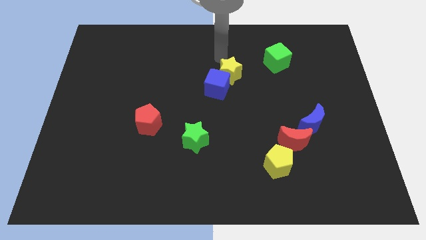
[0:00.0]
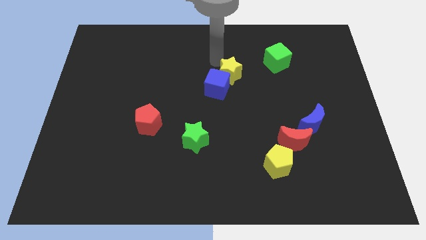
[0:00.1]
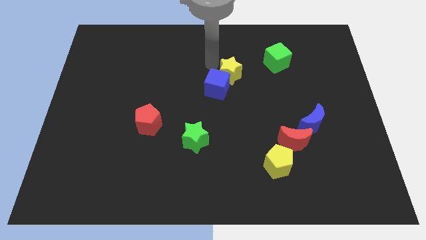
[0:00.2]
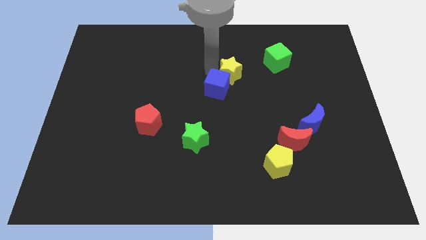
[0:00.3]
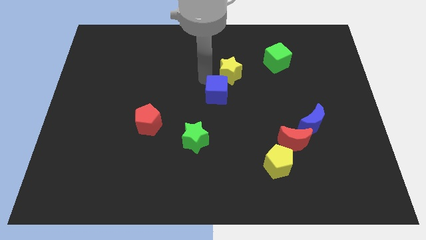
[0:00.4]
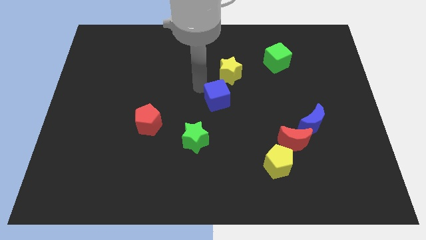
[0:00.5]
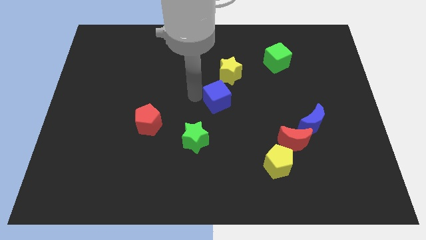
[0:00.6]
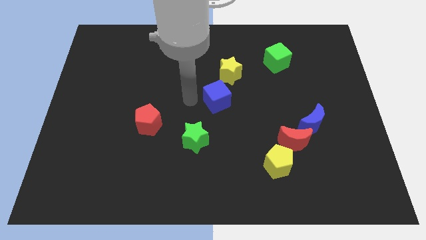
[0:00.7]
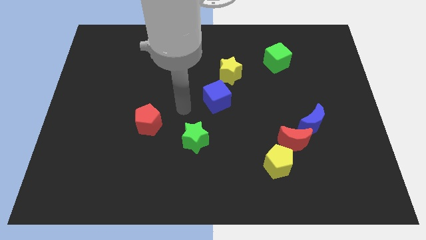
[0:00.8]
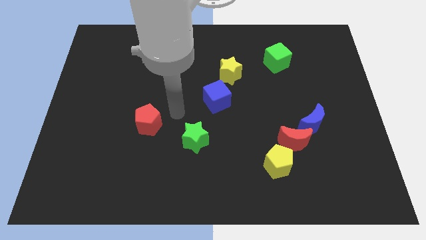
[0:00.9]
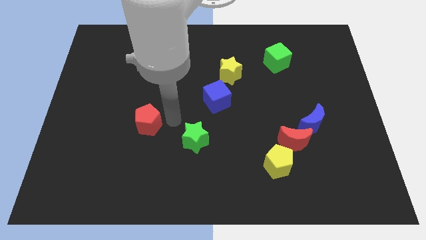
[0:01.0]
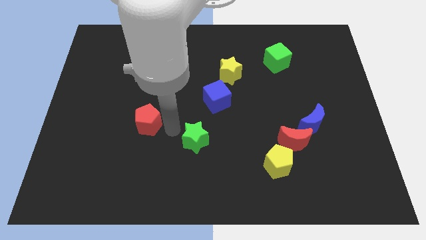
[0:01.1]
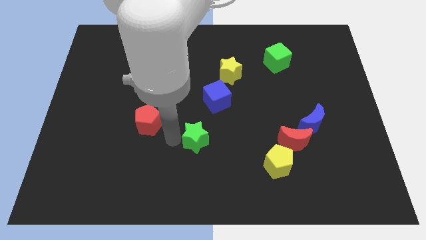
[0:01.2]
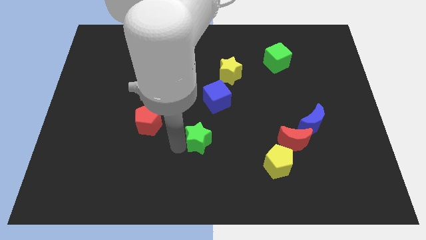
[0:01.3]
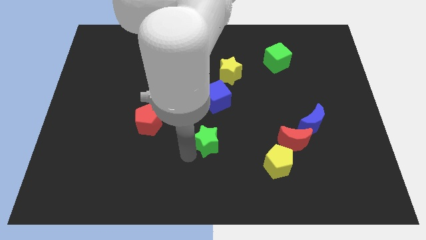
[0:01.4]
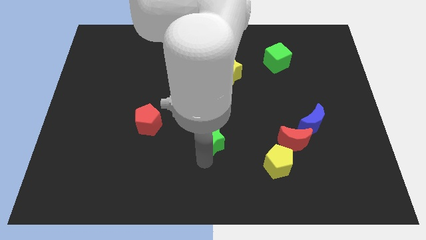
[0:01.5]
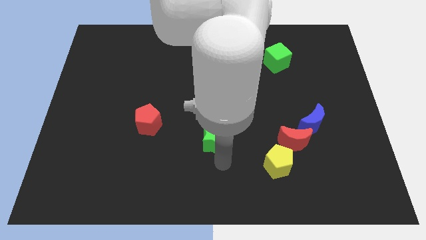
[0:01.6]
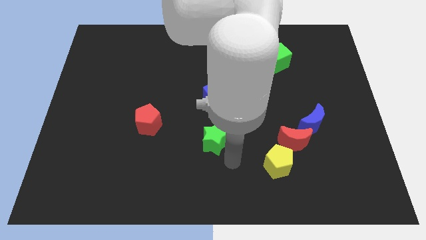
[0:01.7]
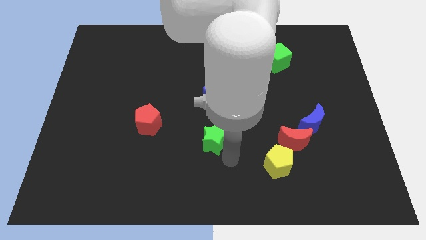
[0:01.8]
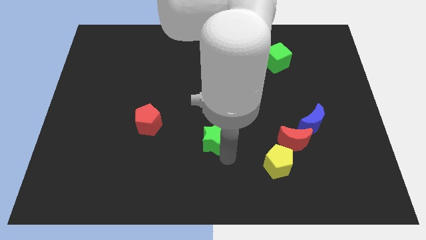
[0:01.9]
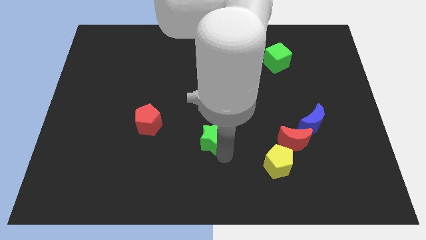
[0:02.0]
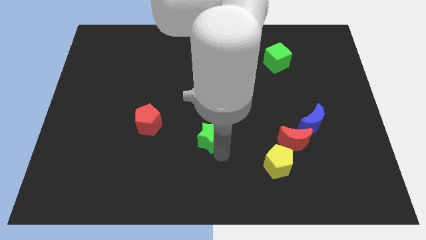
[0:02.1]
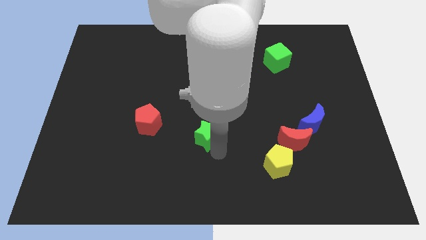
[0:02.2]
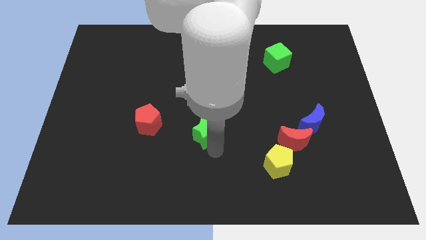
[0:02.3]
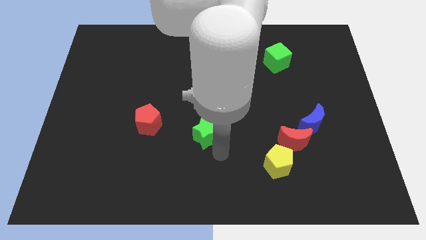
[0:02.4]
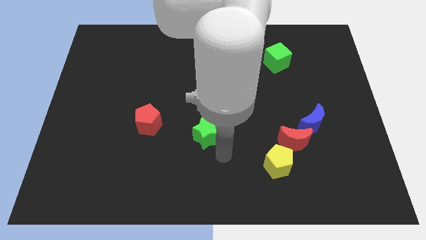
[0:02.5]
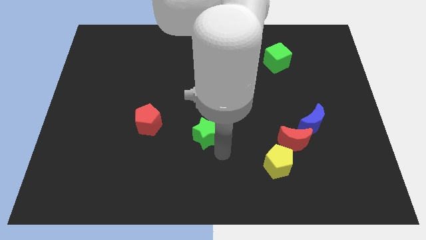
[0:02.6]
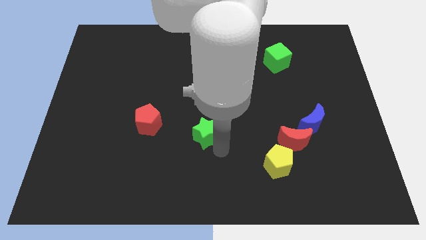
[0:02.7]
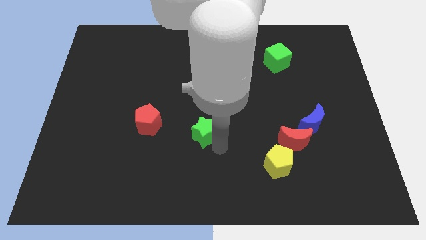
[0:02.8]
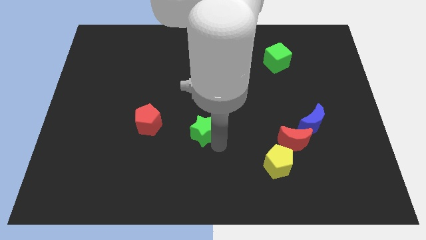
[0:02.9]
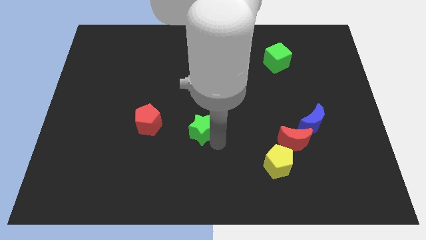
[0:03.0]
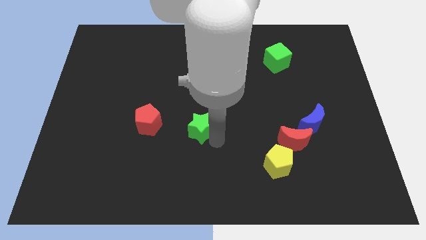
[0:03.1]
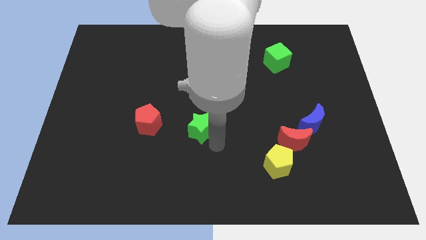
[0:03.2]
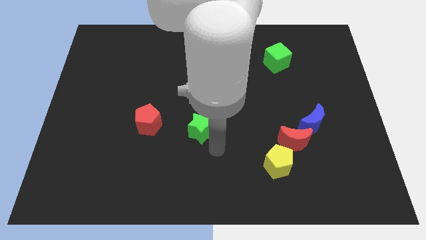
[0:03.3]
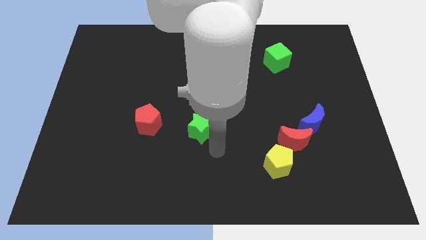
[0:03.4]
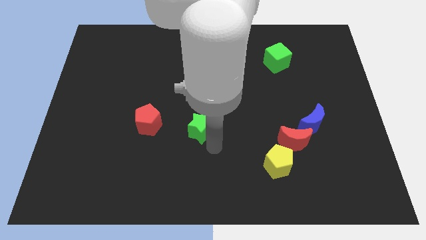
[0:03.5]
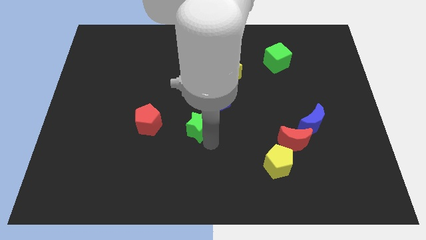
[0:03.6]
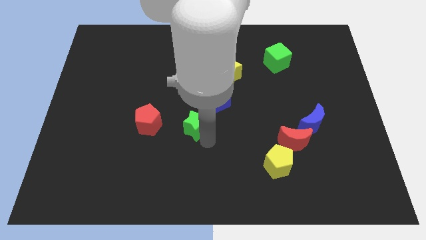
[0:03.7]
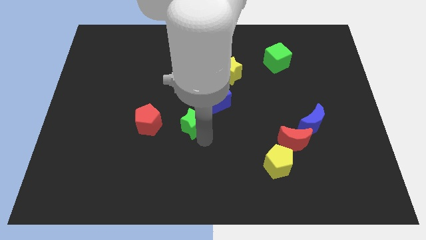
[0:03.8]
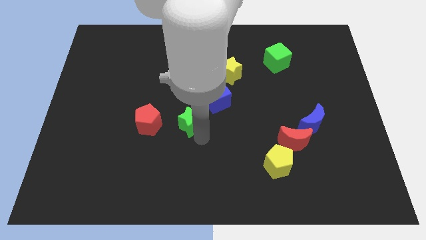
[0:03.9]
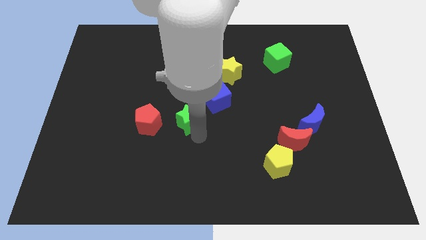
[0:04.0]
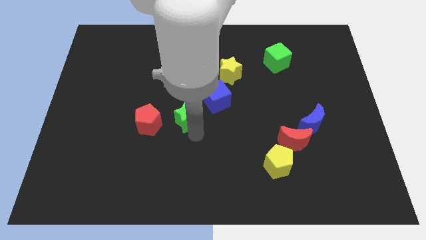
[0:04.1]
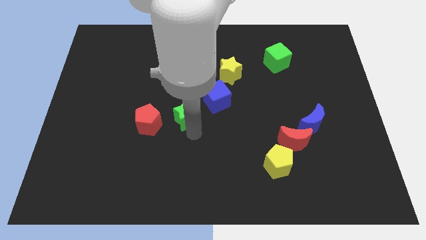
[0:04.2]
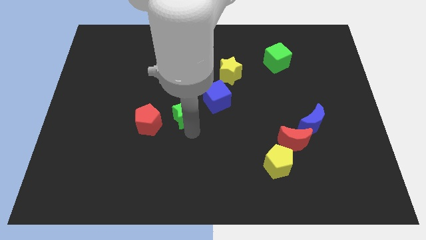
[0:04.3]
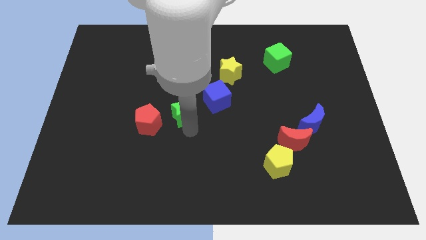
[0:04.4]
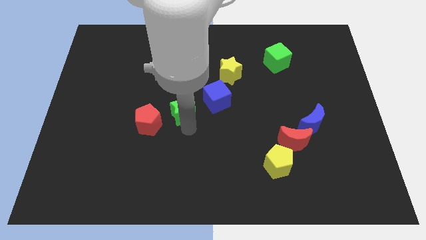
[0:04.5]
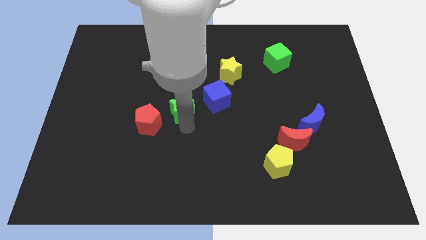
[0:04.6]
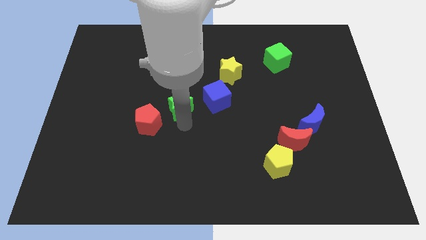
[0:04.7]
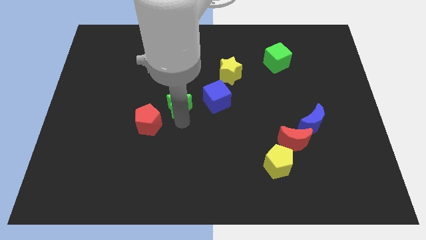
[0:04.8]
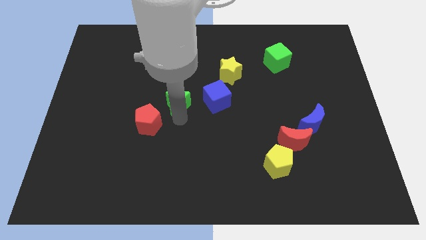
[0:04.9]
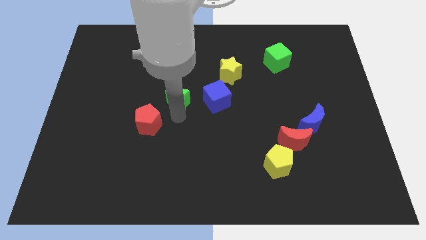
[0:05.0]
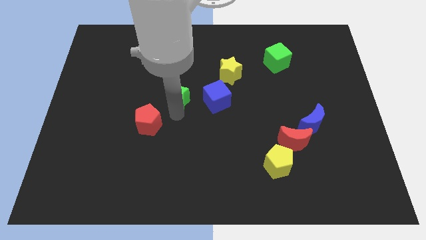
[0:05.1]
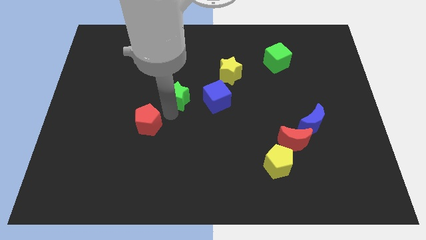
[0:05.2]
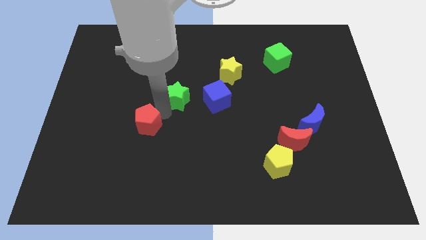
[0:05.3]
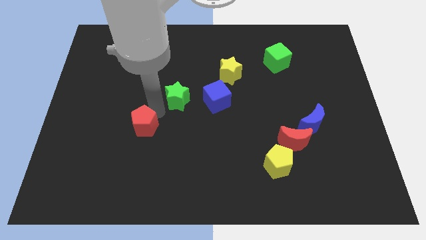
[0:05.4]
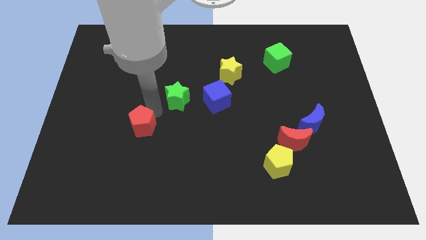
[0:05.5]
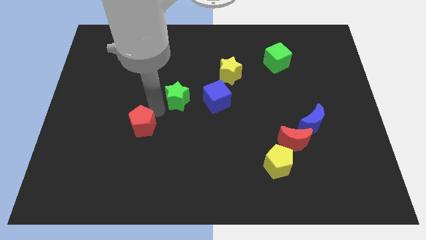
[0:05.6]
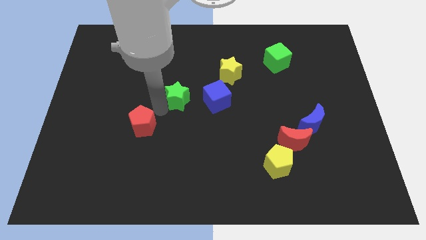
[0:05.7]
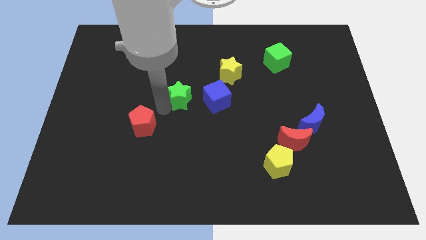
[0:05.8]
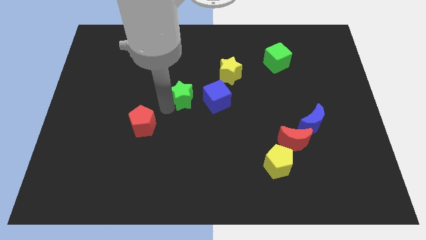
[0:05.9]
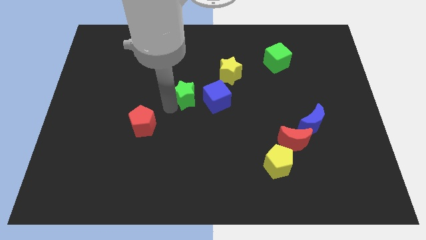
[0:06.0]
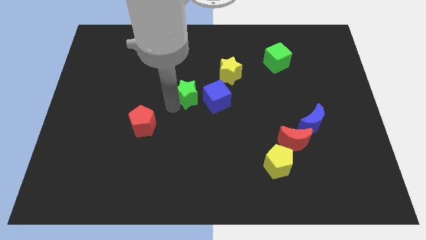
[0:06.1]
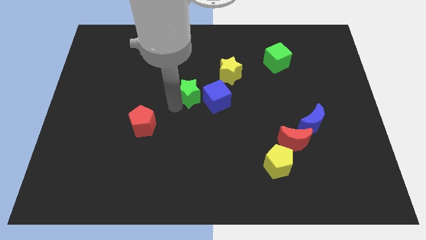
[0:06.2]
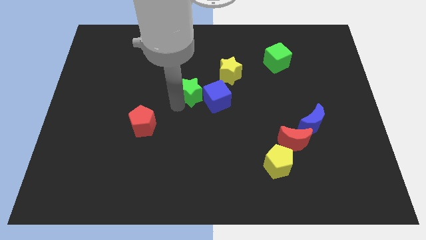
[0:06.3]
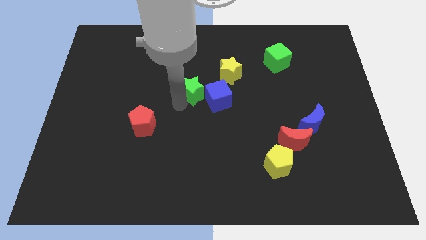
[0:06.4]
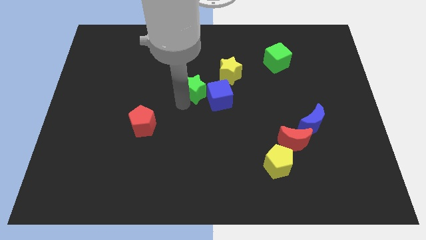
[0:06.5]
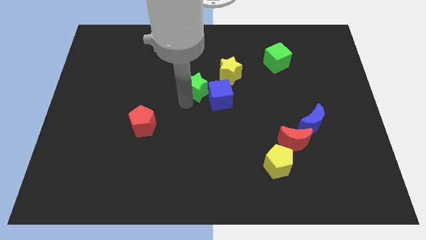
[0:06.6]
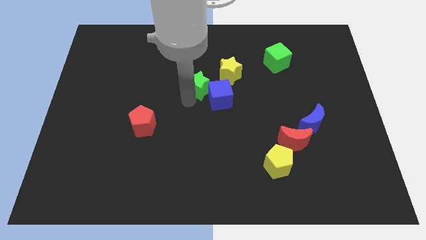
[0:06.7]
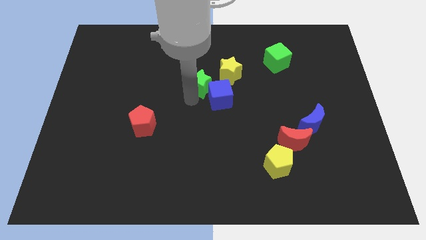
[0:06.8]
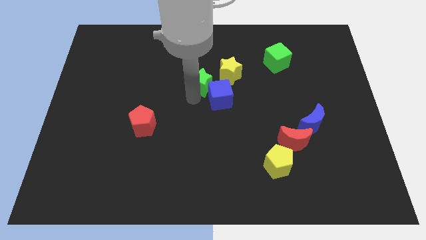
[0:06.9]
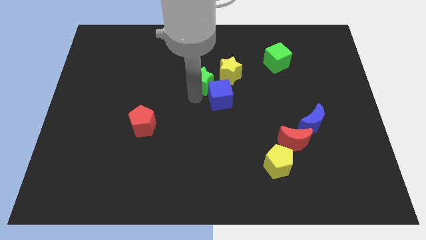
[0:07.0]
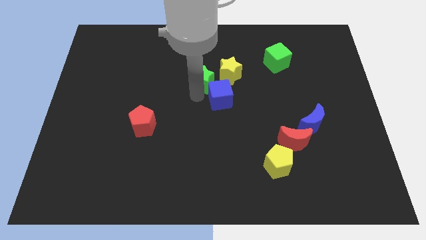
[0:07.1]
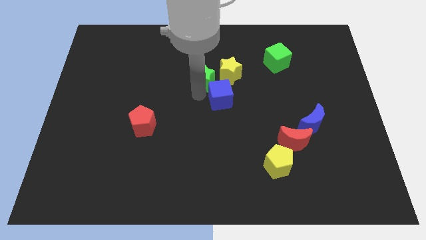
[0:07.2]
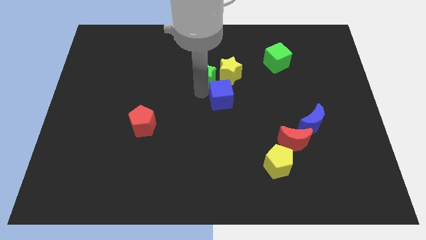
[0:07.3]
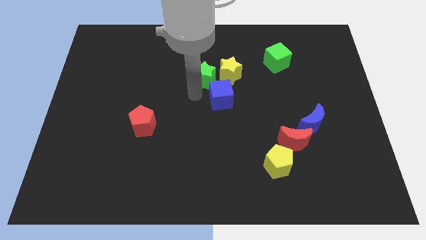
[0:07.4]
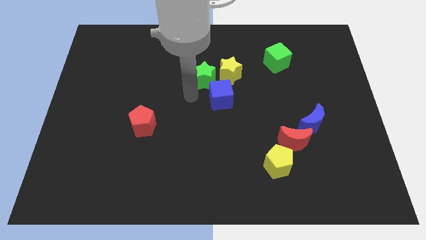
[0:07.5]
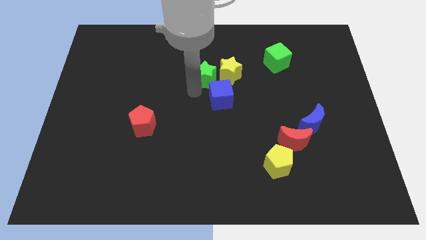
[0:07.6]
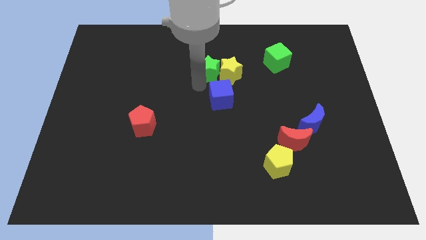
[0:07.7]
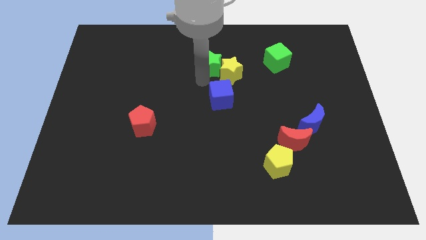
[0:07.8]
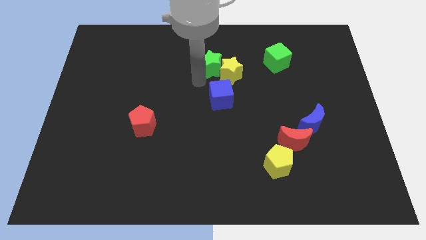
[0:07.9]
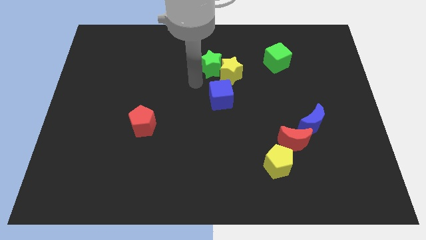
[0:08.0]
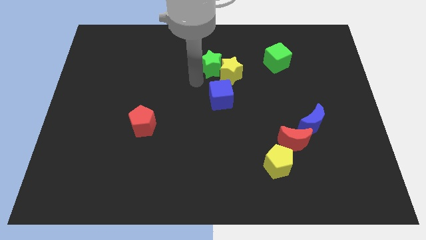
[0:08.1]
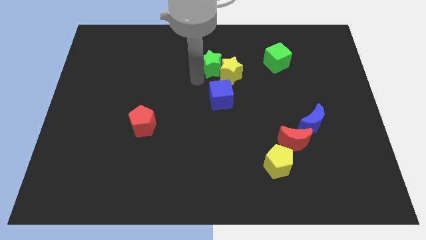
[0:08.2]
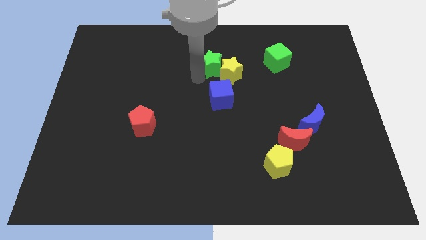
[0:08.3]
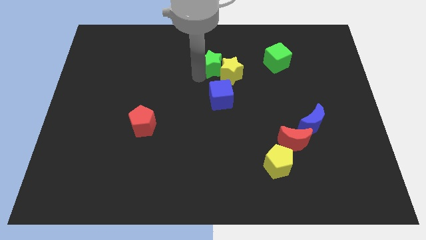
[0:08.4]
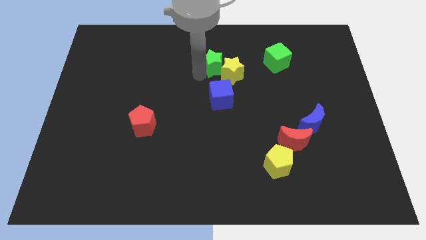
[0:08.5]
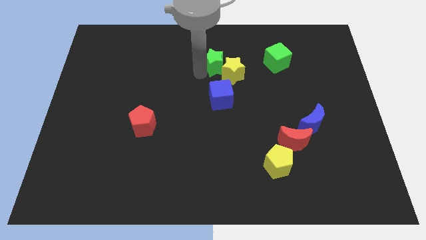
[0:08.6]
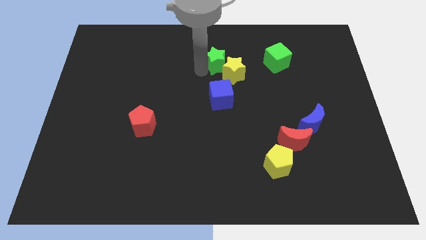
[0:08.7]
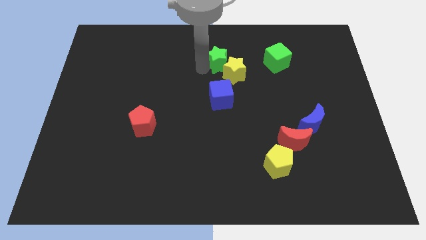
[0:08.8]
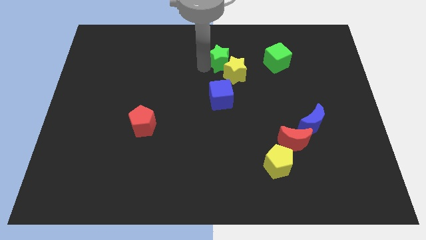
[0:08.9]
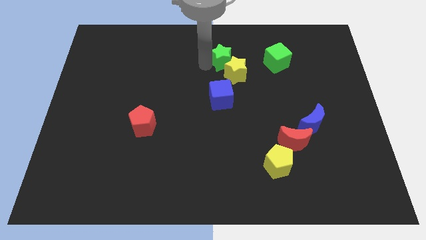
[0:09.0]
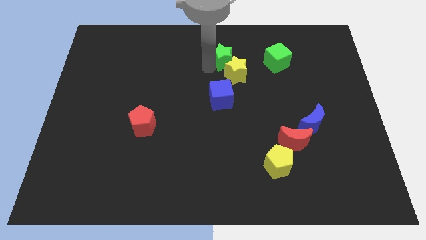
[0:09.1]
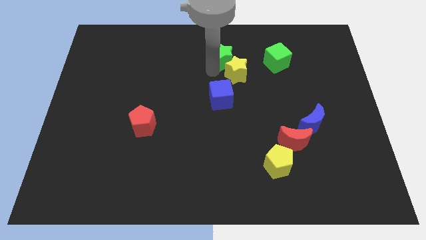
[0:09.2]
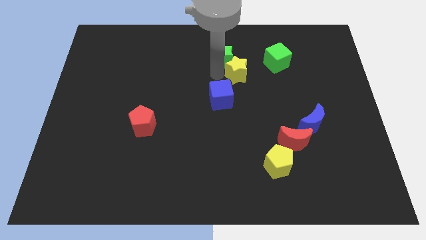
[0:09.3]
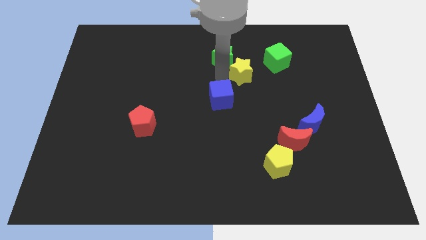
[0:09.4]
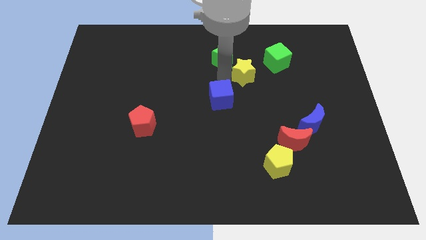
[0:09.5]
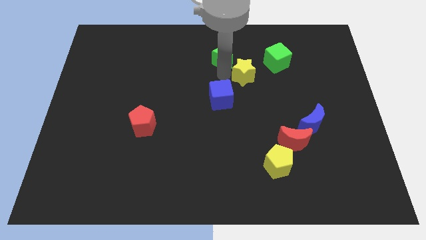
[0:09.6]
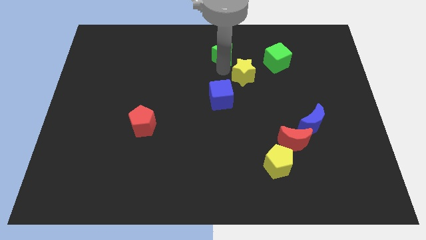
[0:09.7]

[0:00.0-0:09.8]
slide the green star to the towards your base
